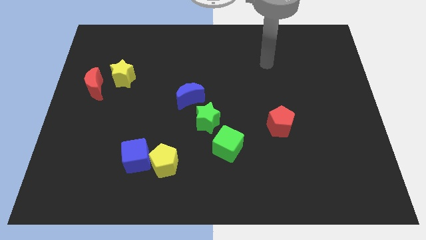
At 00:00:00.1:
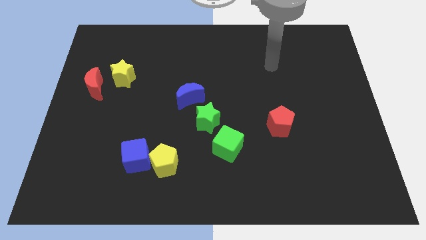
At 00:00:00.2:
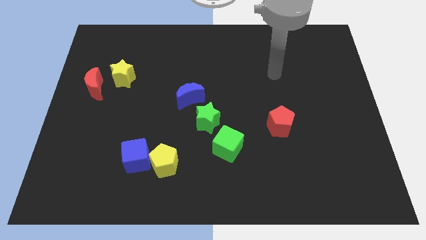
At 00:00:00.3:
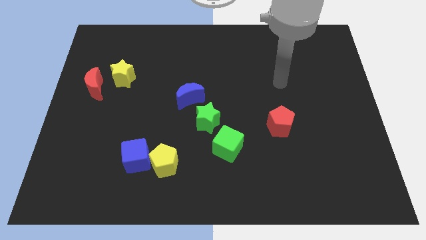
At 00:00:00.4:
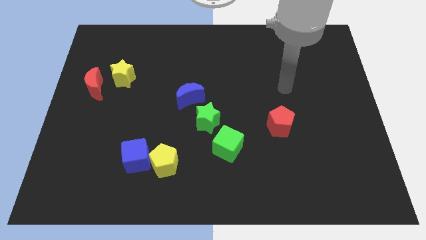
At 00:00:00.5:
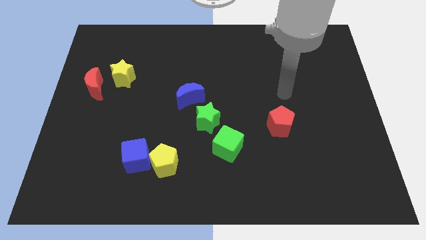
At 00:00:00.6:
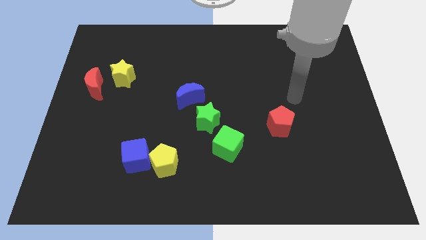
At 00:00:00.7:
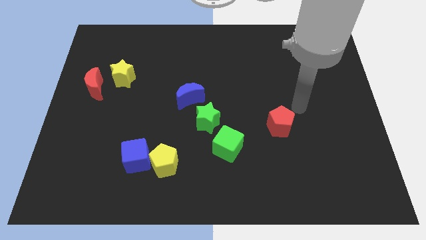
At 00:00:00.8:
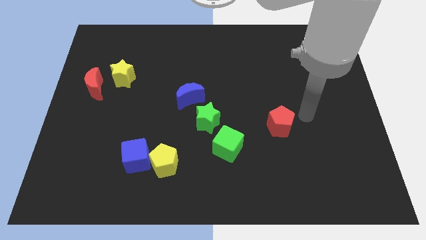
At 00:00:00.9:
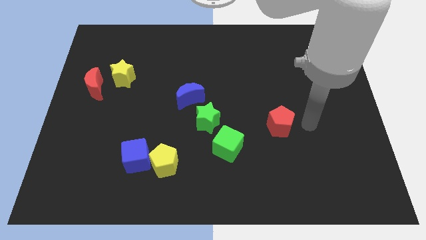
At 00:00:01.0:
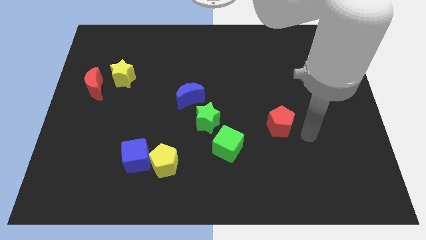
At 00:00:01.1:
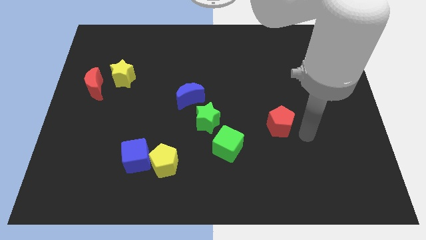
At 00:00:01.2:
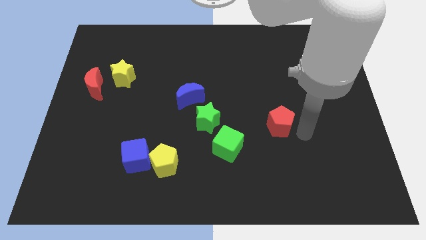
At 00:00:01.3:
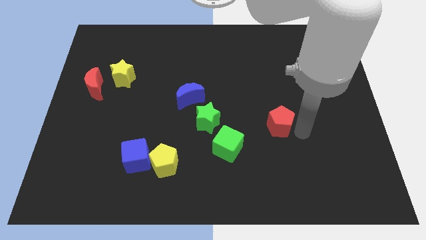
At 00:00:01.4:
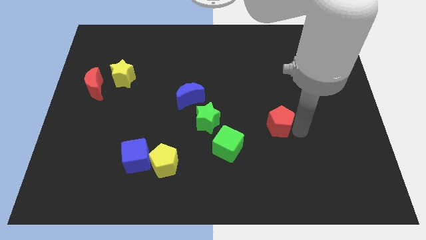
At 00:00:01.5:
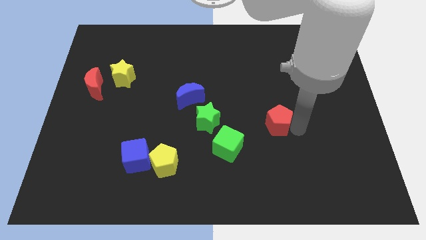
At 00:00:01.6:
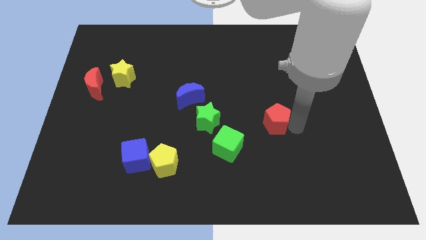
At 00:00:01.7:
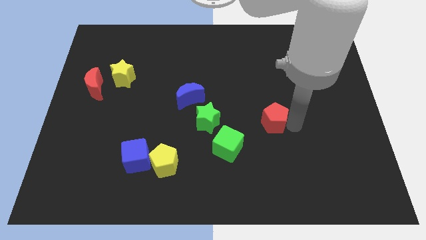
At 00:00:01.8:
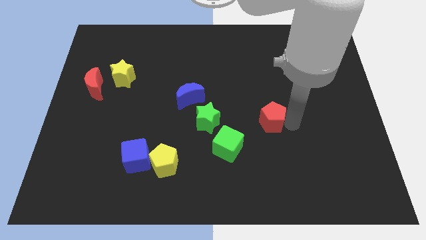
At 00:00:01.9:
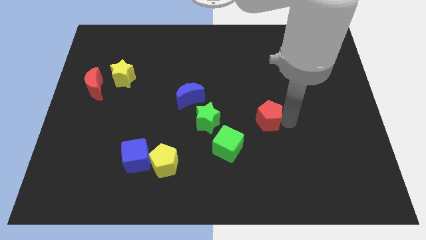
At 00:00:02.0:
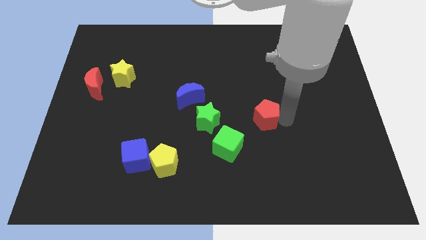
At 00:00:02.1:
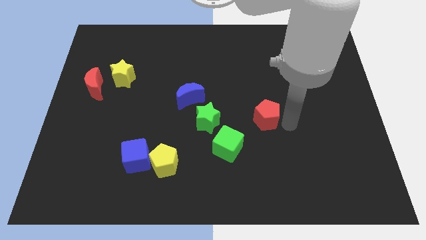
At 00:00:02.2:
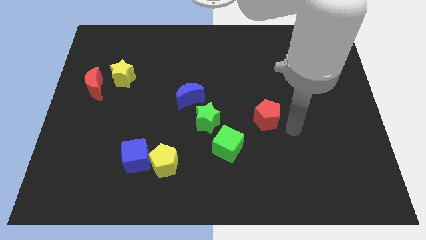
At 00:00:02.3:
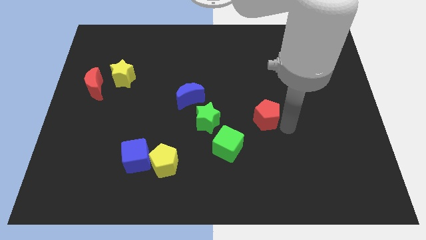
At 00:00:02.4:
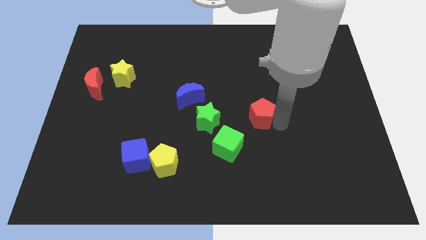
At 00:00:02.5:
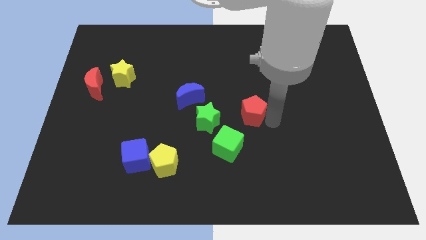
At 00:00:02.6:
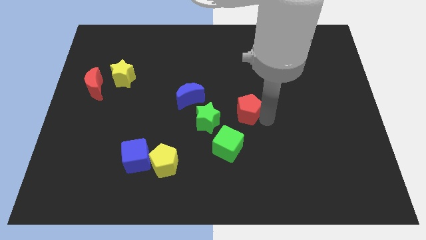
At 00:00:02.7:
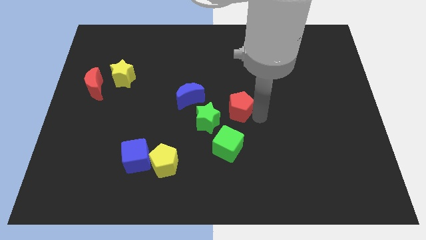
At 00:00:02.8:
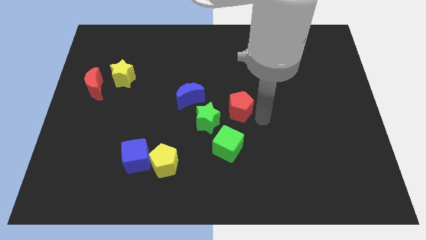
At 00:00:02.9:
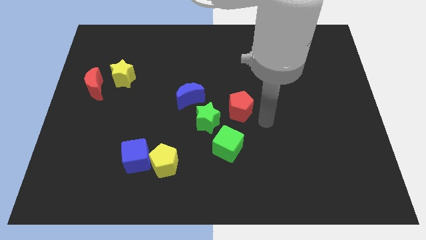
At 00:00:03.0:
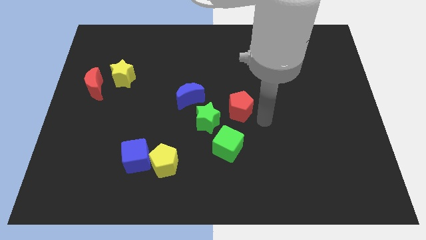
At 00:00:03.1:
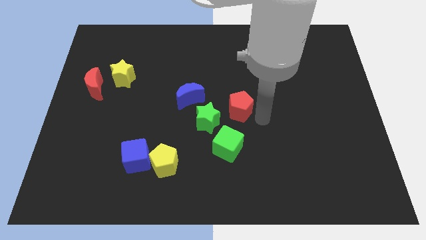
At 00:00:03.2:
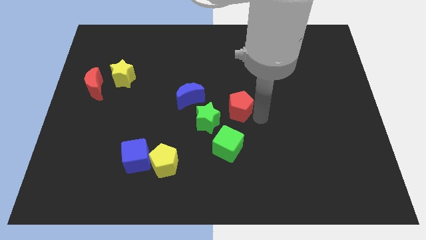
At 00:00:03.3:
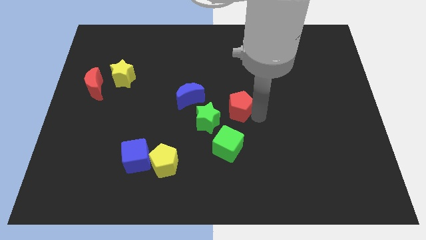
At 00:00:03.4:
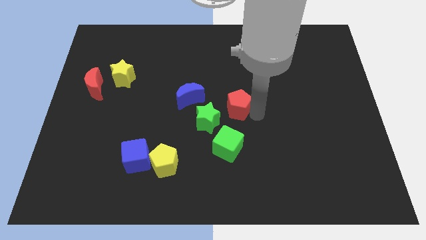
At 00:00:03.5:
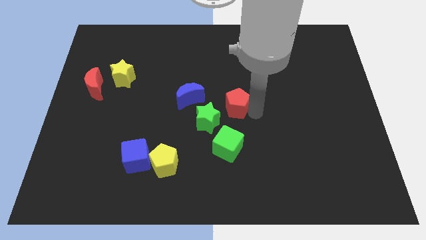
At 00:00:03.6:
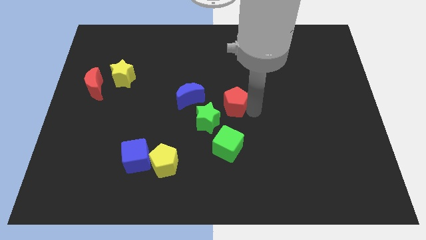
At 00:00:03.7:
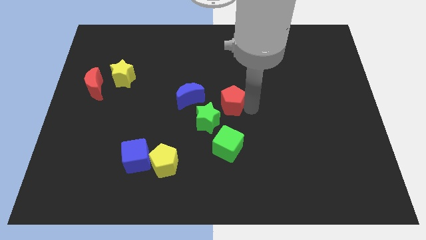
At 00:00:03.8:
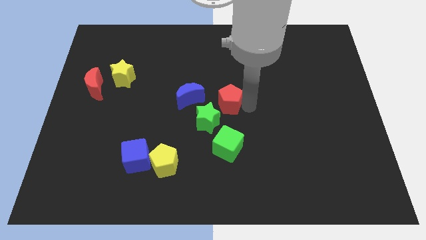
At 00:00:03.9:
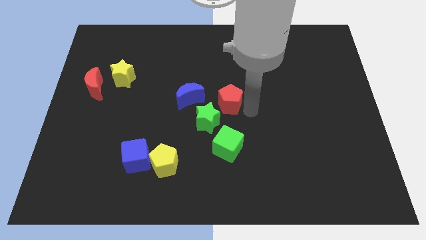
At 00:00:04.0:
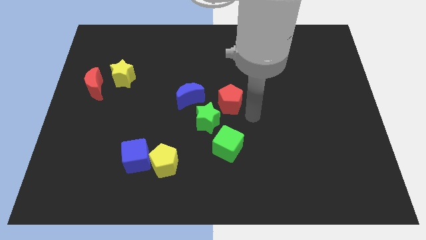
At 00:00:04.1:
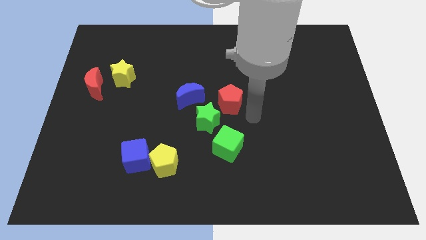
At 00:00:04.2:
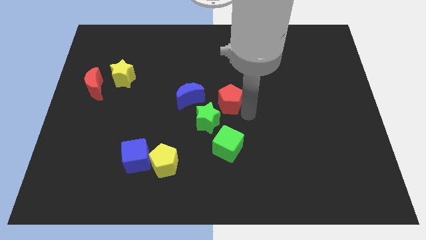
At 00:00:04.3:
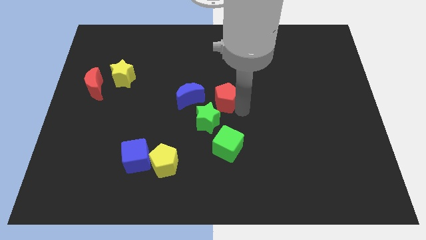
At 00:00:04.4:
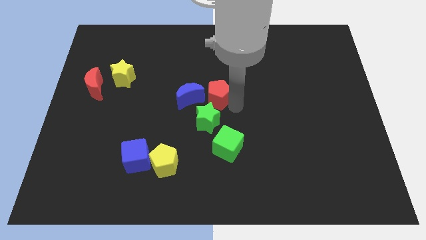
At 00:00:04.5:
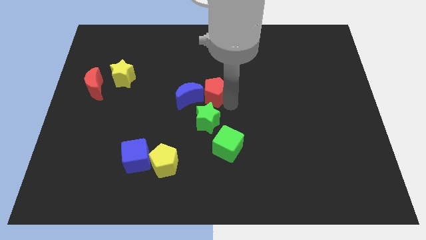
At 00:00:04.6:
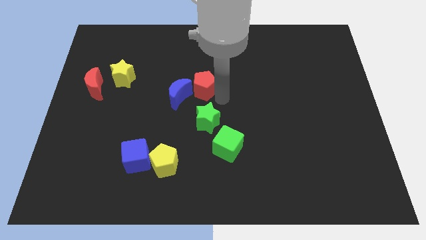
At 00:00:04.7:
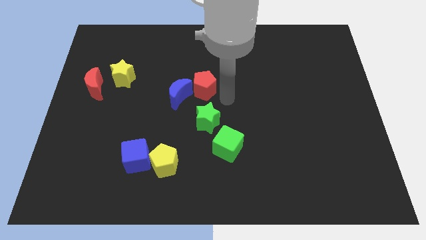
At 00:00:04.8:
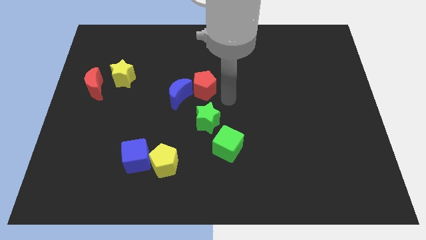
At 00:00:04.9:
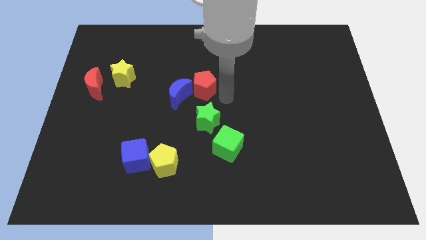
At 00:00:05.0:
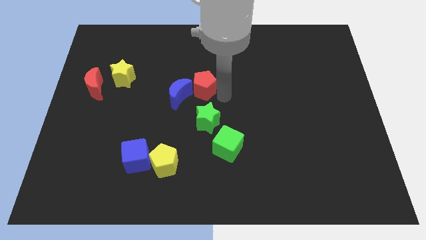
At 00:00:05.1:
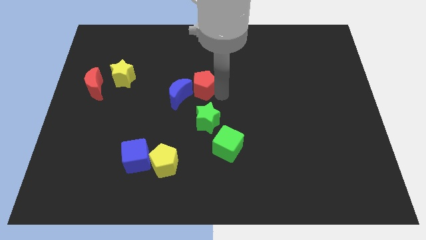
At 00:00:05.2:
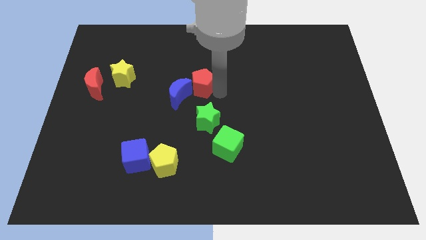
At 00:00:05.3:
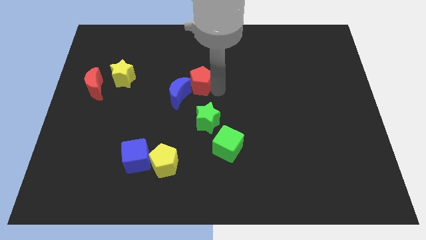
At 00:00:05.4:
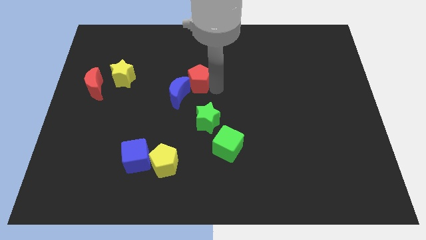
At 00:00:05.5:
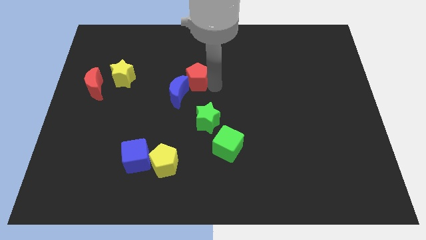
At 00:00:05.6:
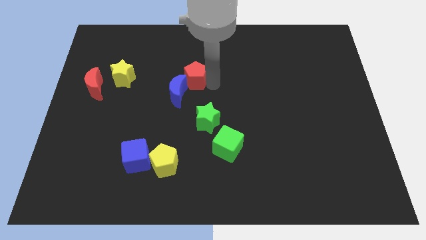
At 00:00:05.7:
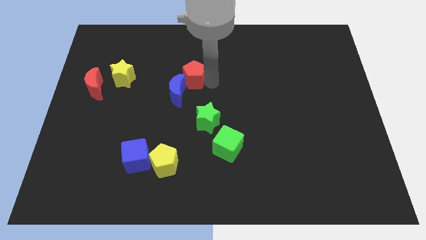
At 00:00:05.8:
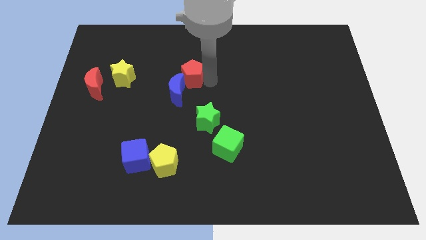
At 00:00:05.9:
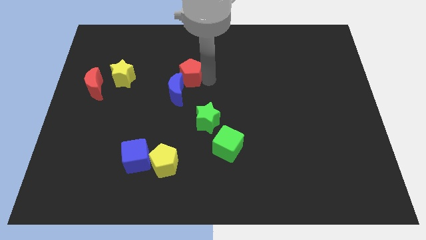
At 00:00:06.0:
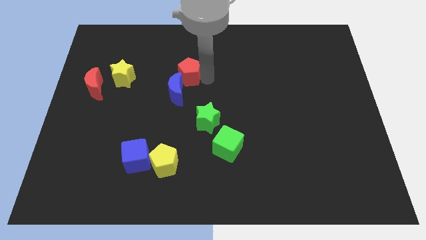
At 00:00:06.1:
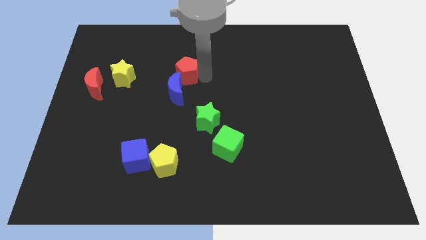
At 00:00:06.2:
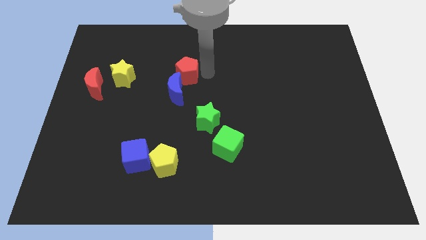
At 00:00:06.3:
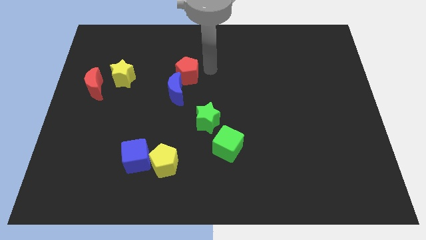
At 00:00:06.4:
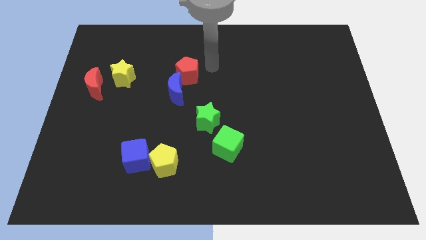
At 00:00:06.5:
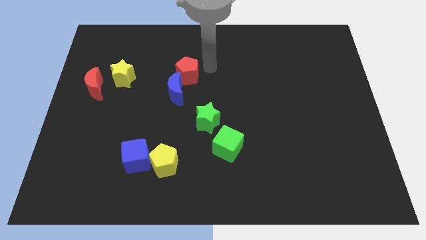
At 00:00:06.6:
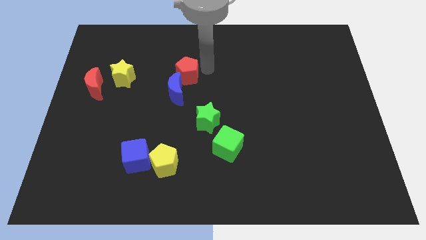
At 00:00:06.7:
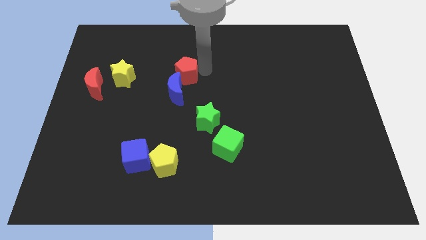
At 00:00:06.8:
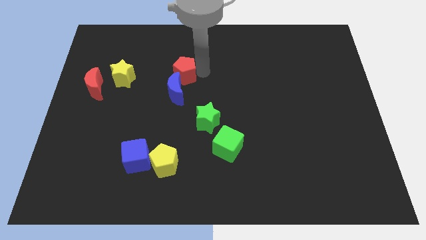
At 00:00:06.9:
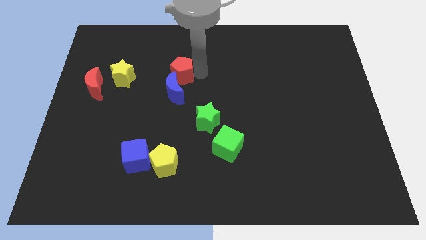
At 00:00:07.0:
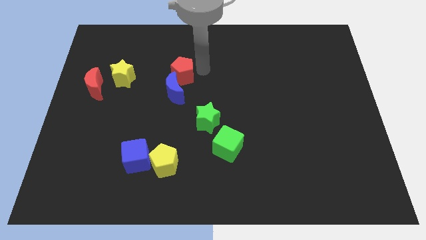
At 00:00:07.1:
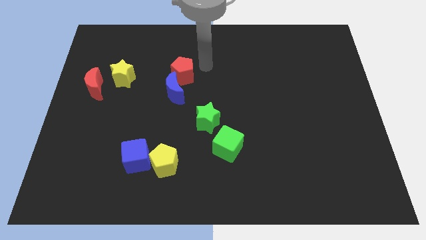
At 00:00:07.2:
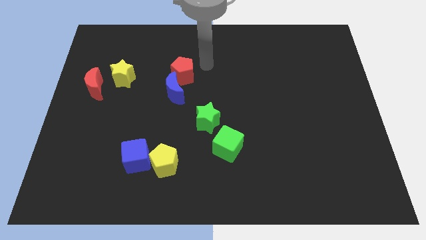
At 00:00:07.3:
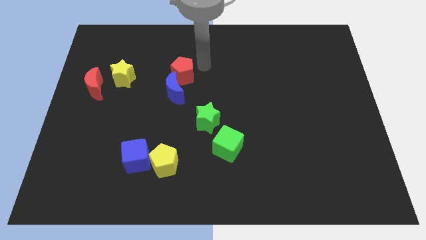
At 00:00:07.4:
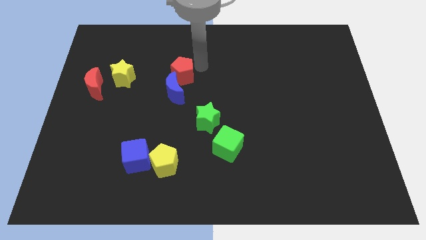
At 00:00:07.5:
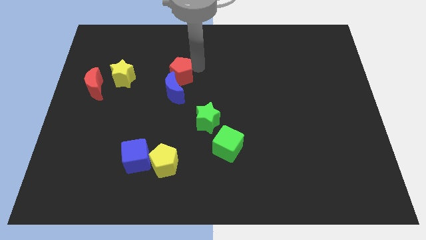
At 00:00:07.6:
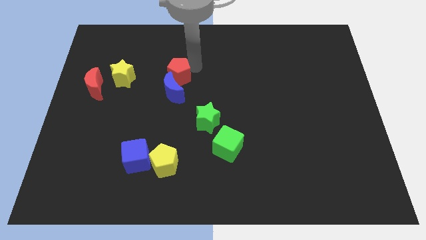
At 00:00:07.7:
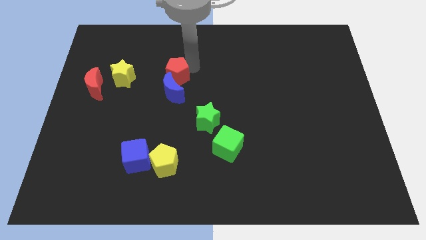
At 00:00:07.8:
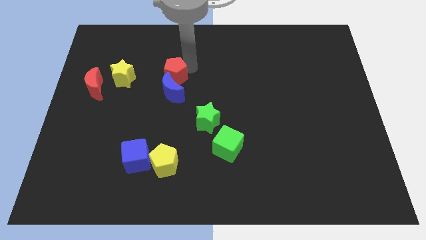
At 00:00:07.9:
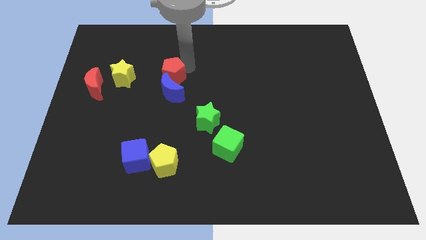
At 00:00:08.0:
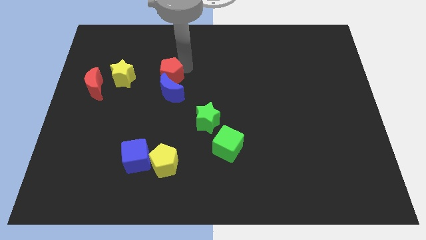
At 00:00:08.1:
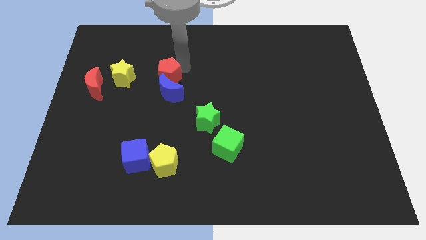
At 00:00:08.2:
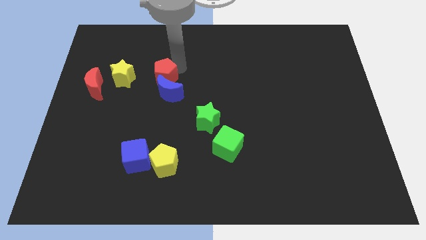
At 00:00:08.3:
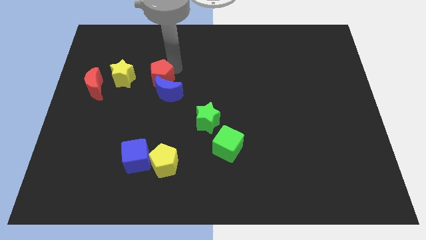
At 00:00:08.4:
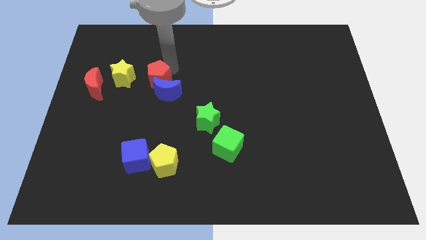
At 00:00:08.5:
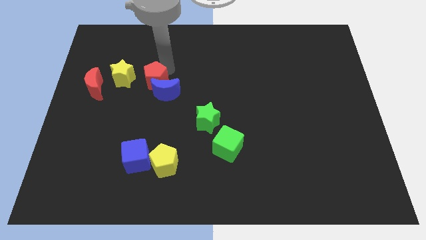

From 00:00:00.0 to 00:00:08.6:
push the red pentagon just left of the blue moon
